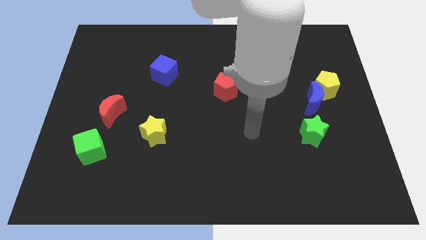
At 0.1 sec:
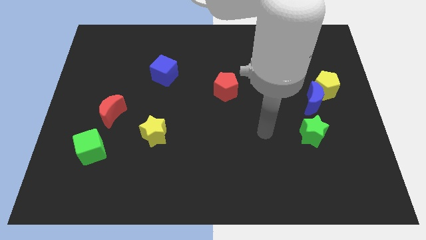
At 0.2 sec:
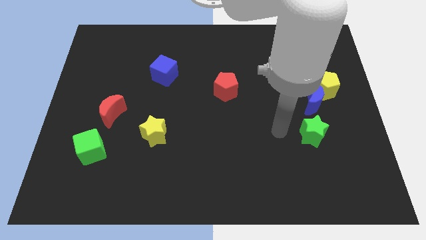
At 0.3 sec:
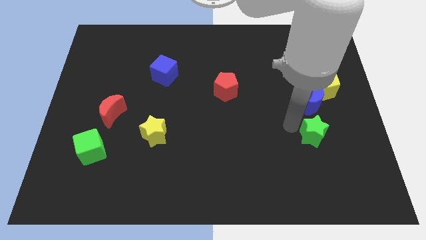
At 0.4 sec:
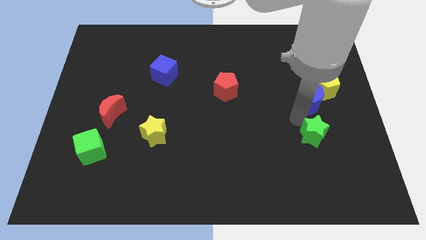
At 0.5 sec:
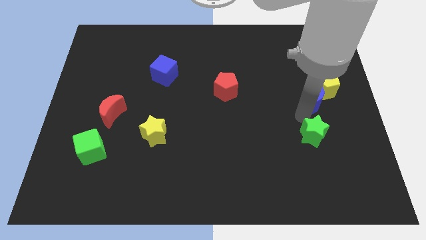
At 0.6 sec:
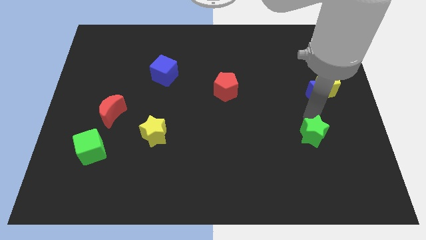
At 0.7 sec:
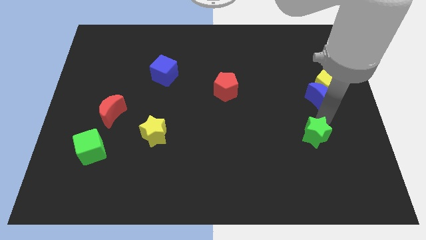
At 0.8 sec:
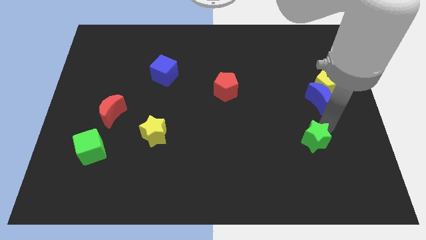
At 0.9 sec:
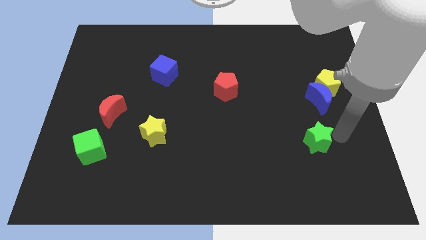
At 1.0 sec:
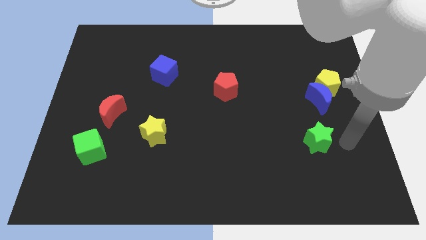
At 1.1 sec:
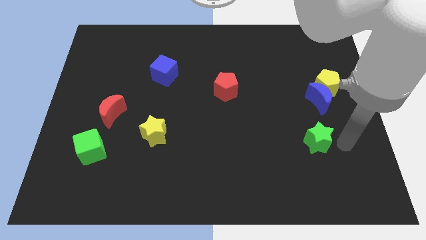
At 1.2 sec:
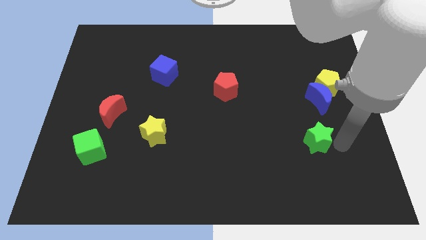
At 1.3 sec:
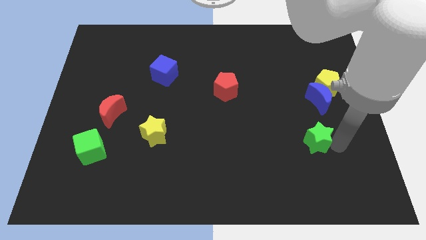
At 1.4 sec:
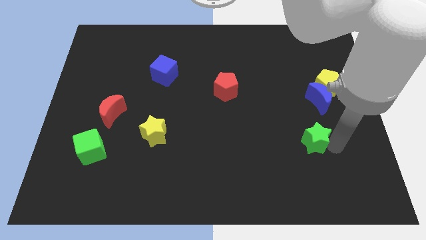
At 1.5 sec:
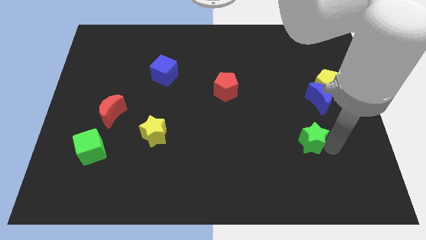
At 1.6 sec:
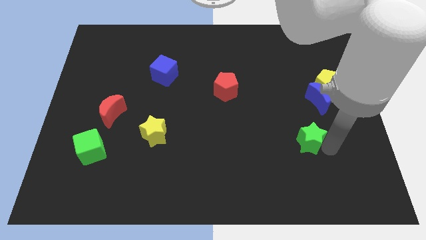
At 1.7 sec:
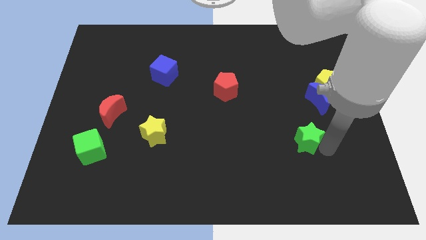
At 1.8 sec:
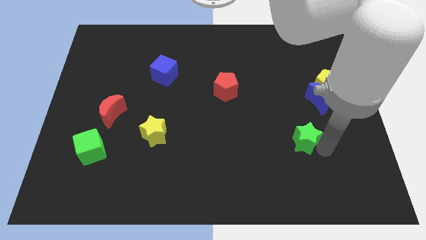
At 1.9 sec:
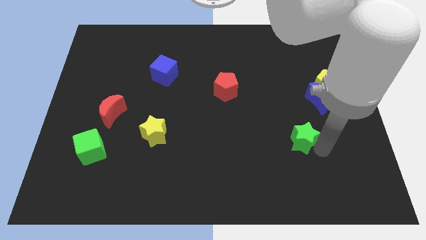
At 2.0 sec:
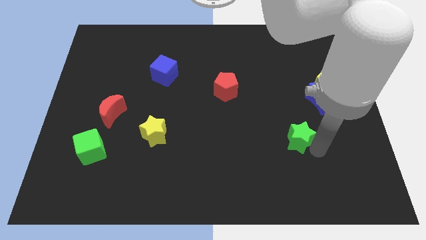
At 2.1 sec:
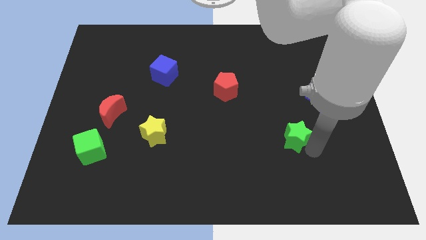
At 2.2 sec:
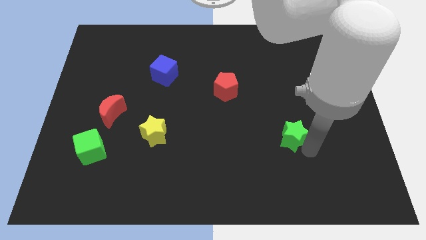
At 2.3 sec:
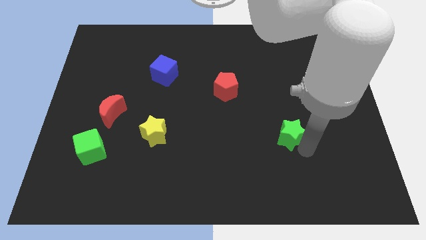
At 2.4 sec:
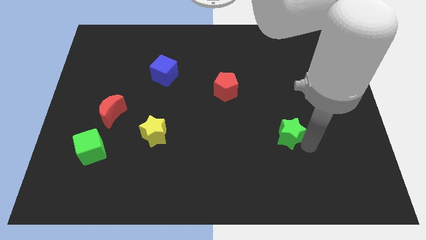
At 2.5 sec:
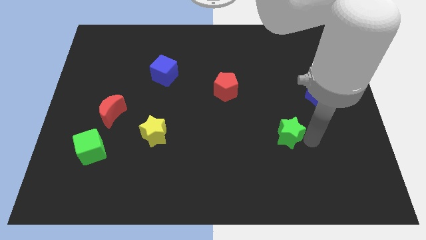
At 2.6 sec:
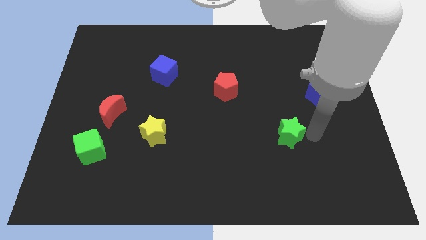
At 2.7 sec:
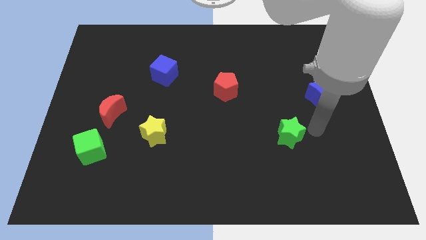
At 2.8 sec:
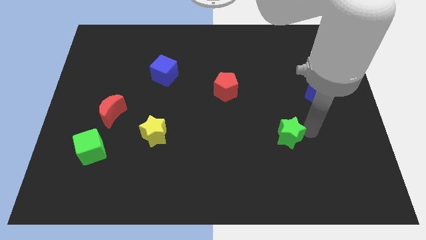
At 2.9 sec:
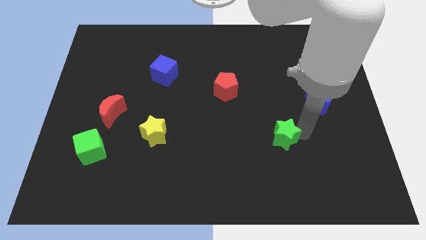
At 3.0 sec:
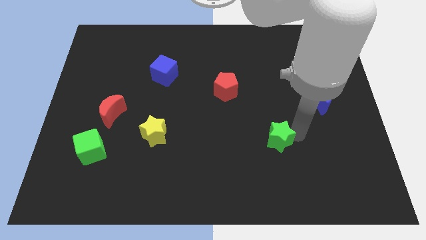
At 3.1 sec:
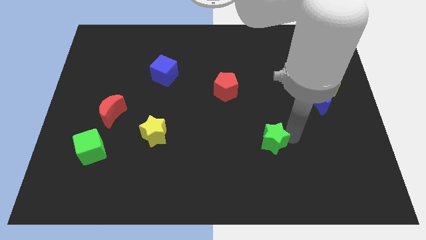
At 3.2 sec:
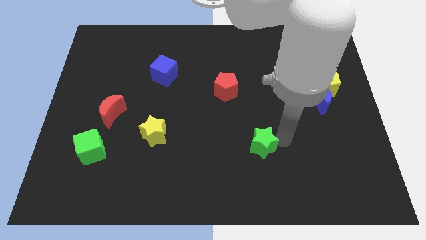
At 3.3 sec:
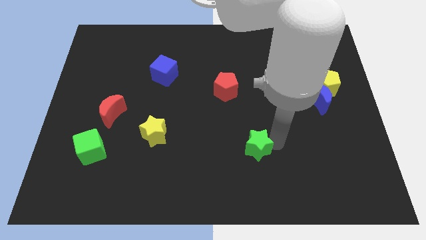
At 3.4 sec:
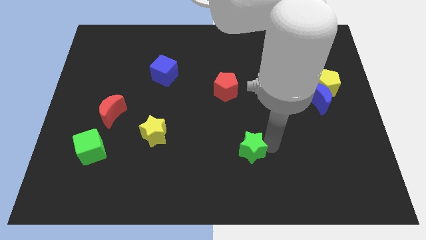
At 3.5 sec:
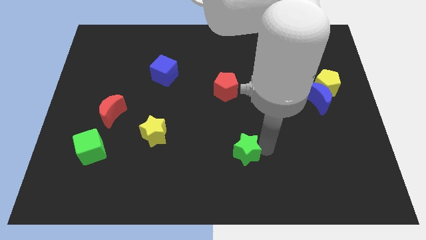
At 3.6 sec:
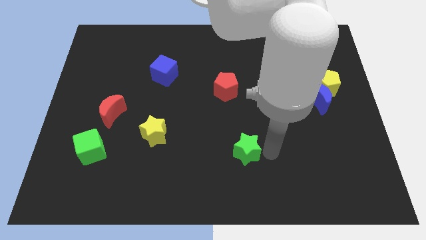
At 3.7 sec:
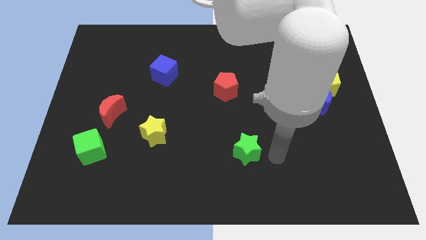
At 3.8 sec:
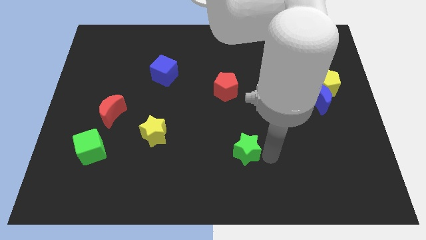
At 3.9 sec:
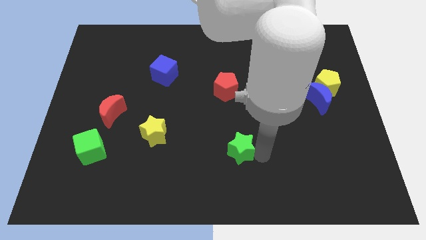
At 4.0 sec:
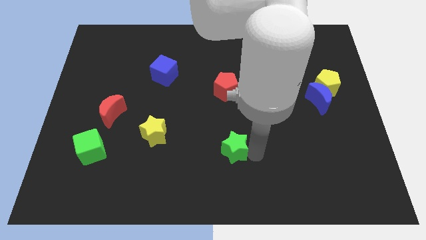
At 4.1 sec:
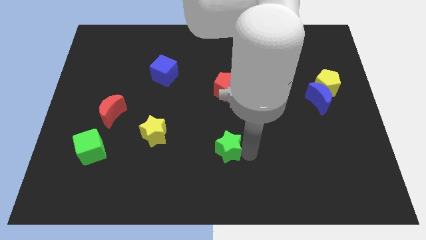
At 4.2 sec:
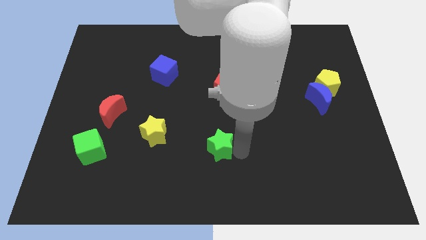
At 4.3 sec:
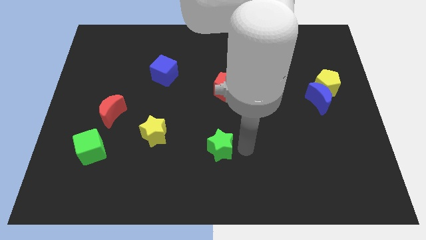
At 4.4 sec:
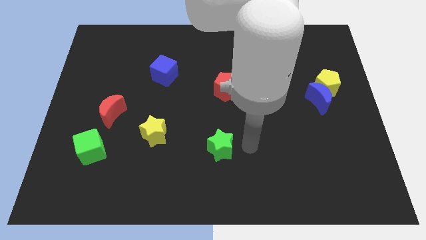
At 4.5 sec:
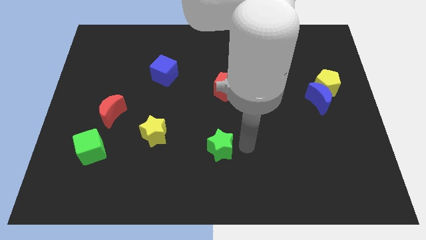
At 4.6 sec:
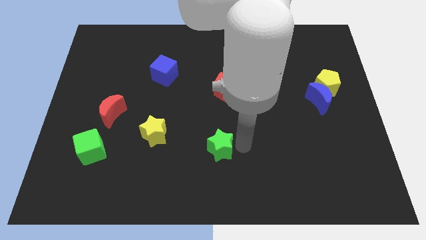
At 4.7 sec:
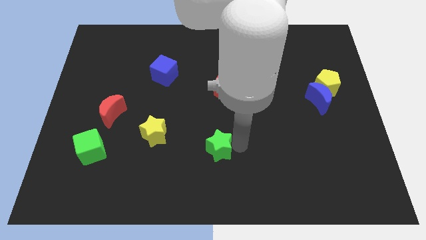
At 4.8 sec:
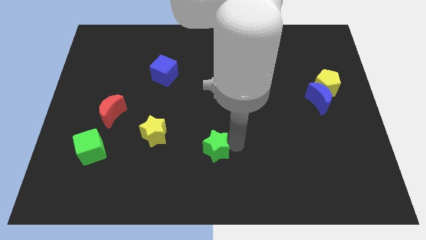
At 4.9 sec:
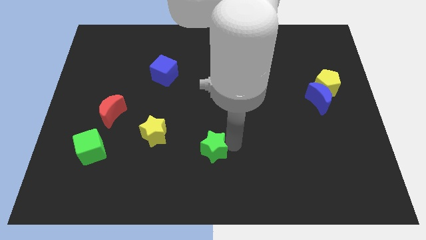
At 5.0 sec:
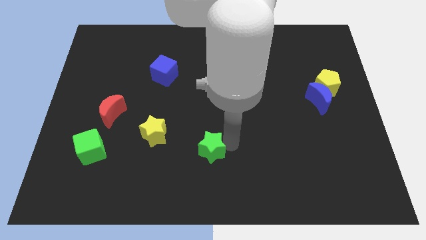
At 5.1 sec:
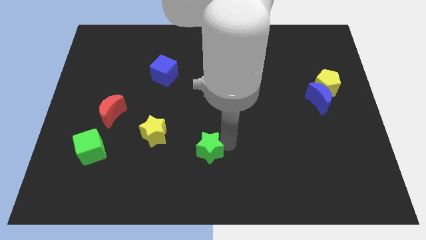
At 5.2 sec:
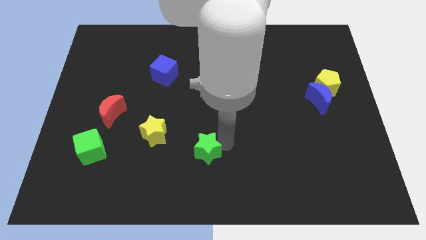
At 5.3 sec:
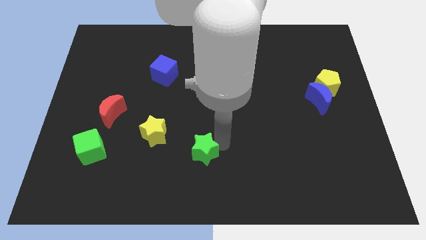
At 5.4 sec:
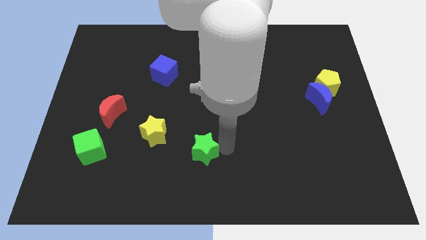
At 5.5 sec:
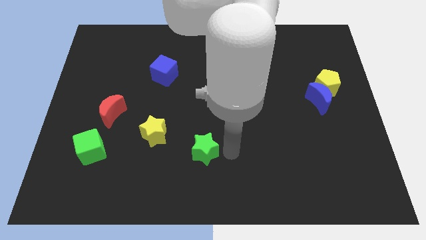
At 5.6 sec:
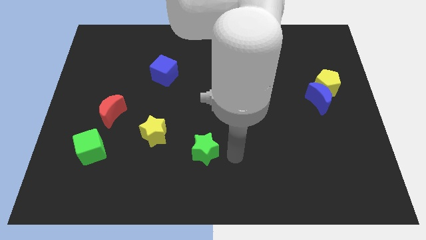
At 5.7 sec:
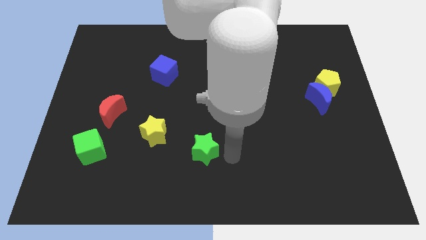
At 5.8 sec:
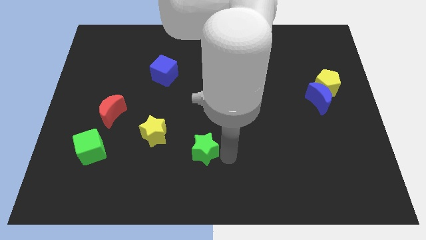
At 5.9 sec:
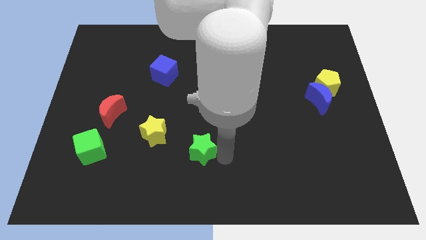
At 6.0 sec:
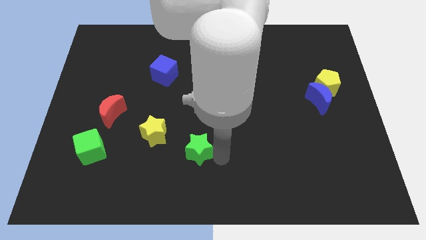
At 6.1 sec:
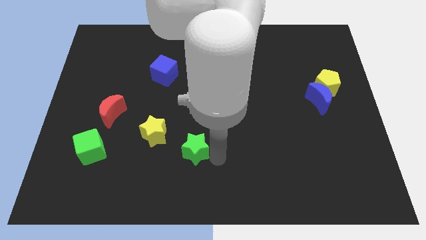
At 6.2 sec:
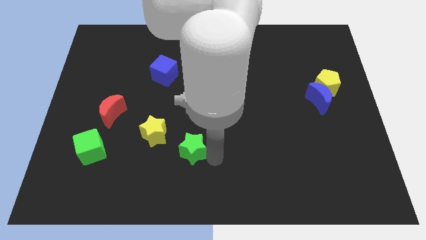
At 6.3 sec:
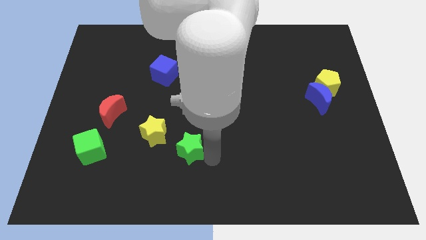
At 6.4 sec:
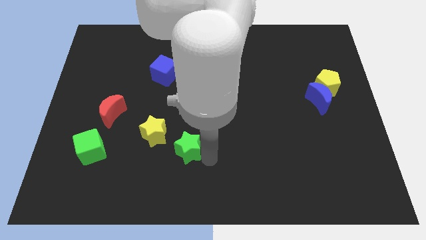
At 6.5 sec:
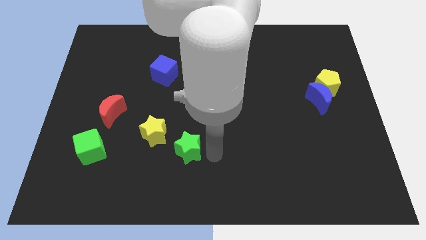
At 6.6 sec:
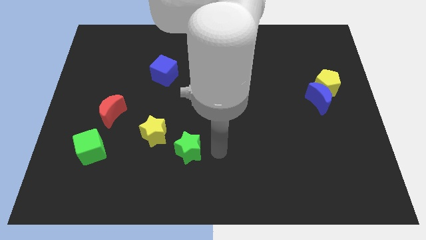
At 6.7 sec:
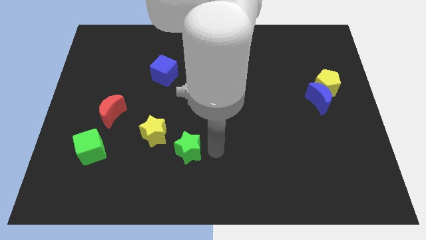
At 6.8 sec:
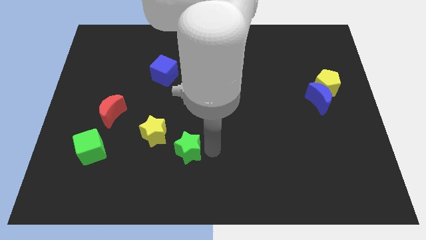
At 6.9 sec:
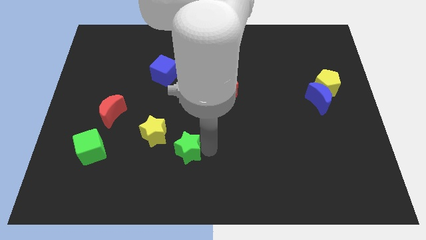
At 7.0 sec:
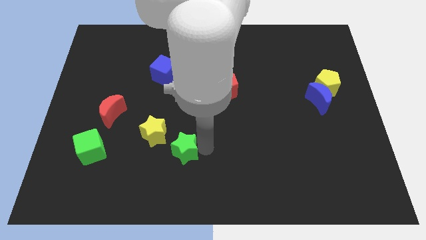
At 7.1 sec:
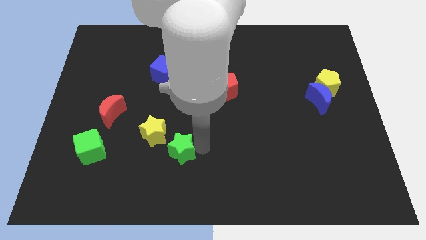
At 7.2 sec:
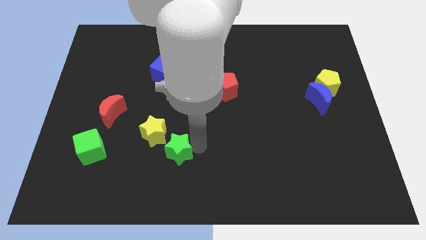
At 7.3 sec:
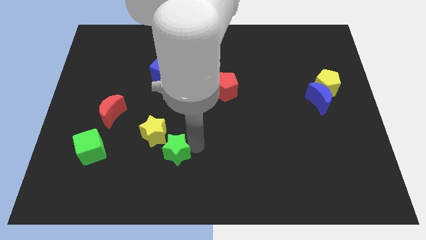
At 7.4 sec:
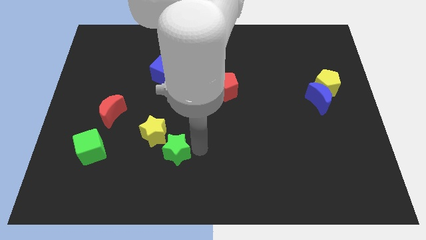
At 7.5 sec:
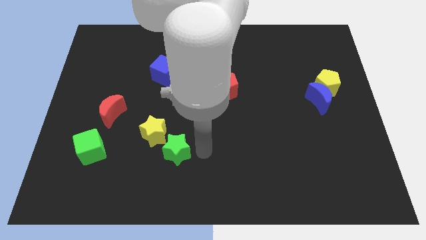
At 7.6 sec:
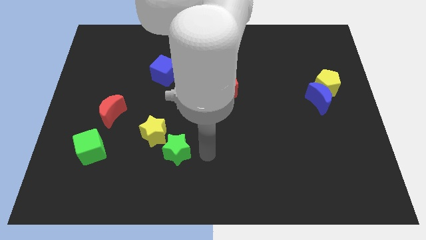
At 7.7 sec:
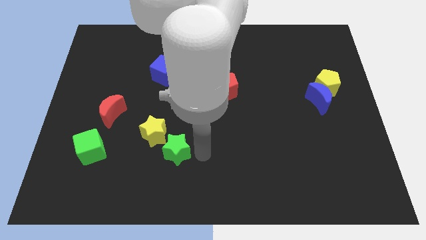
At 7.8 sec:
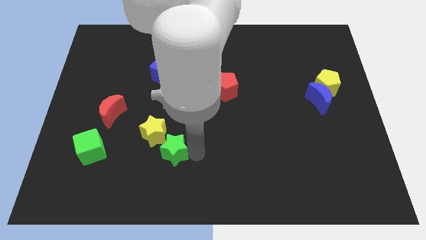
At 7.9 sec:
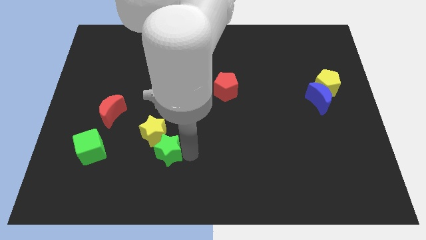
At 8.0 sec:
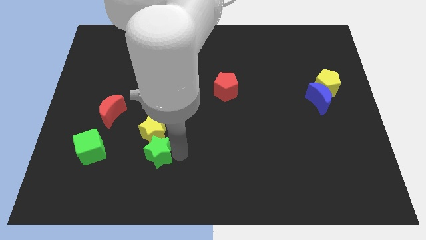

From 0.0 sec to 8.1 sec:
slide the green star to the bottom left side of the yellow star
